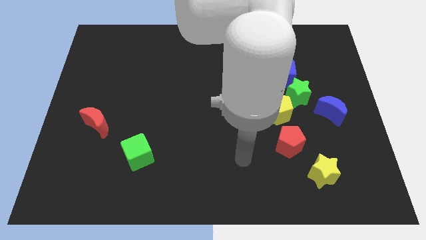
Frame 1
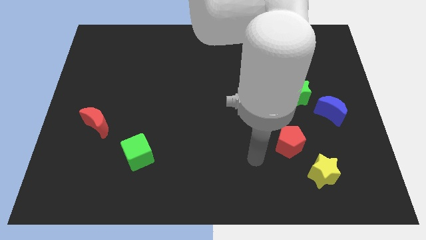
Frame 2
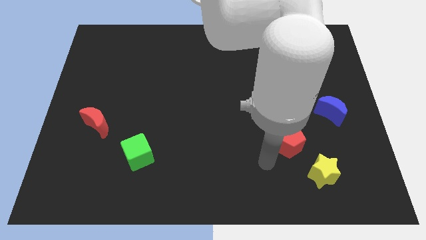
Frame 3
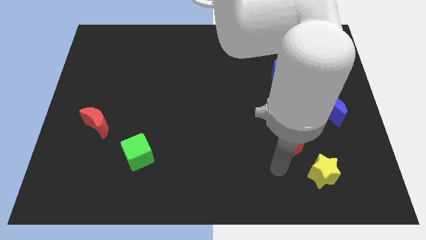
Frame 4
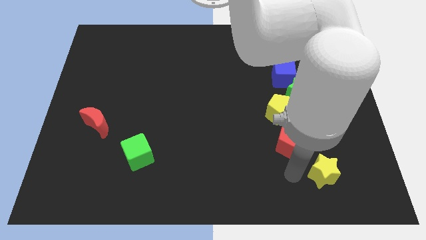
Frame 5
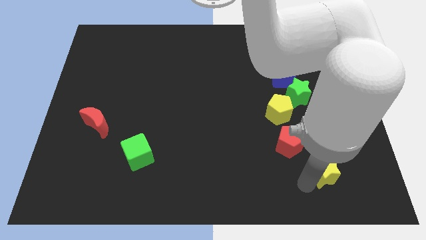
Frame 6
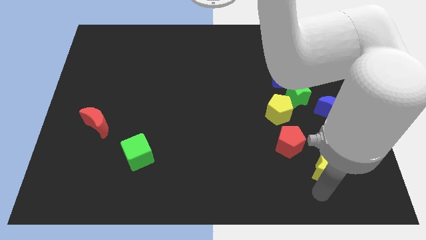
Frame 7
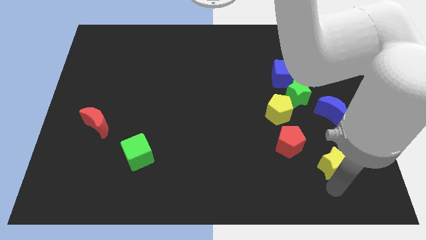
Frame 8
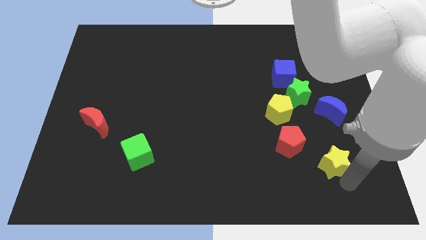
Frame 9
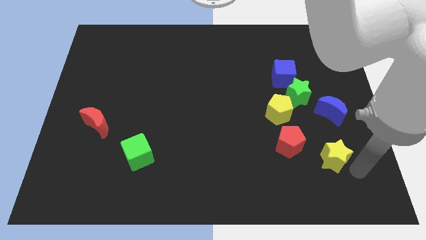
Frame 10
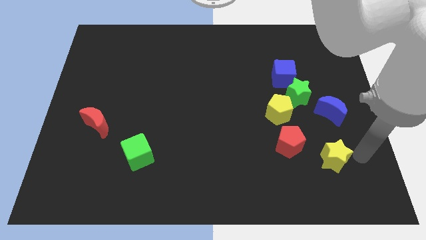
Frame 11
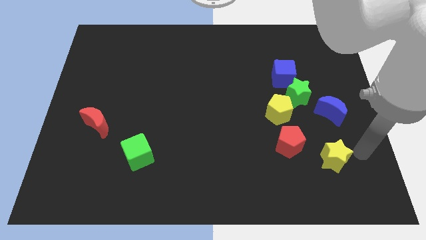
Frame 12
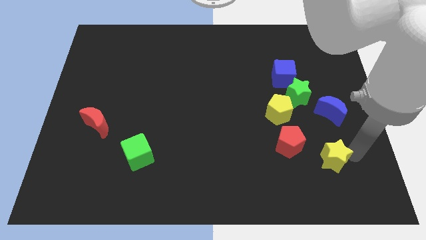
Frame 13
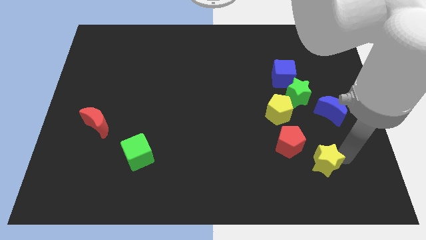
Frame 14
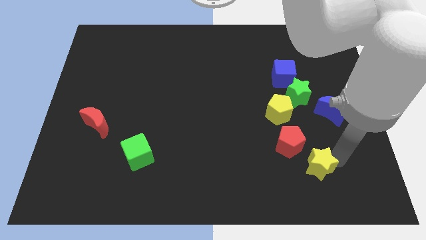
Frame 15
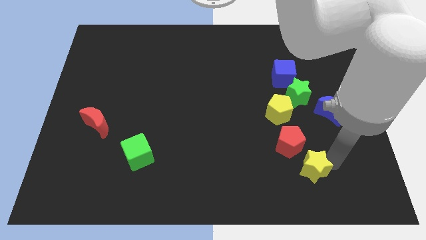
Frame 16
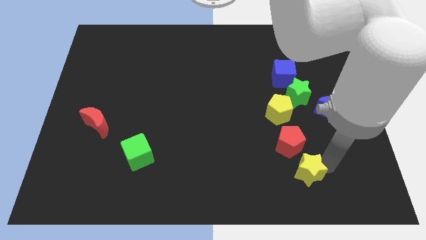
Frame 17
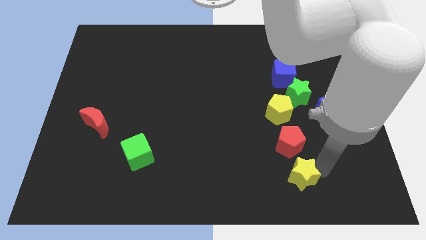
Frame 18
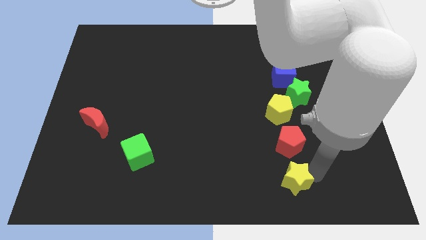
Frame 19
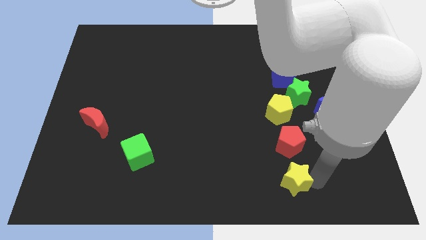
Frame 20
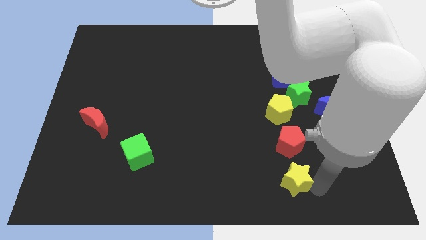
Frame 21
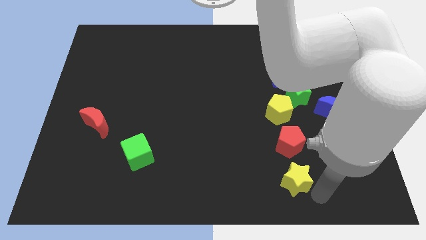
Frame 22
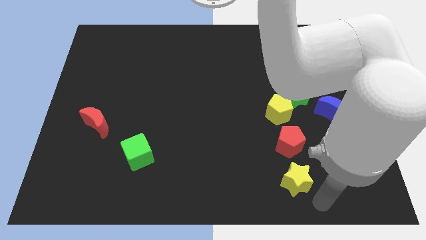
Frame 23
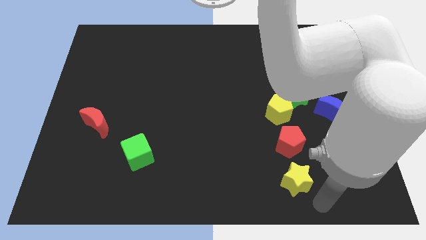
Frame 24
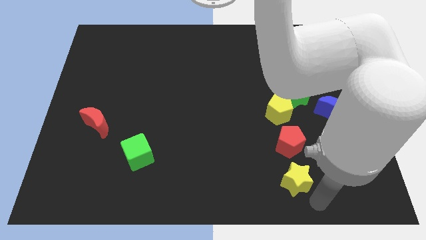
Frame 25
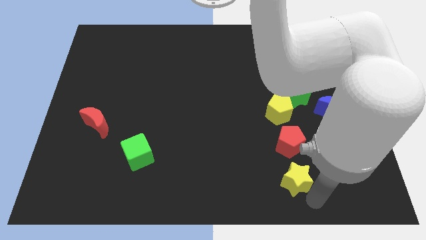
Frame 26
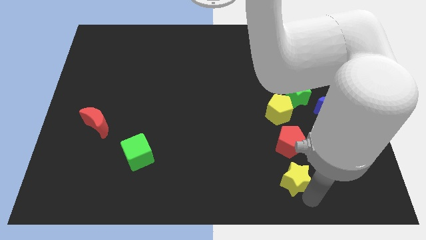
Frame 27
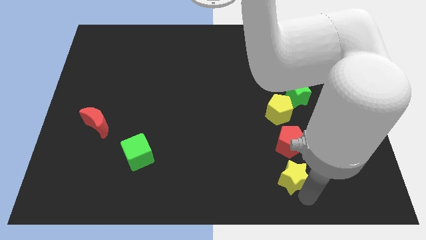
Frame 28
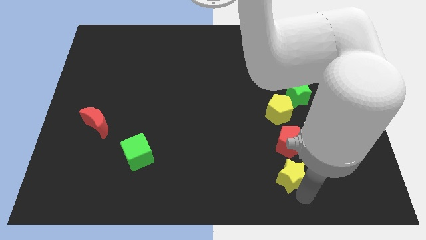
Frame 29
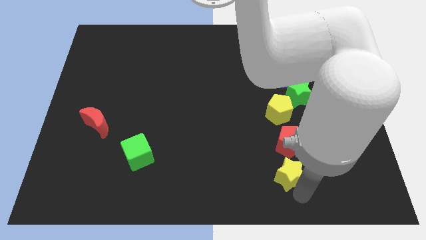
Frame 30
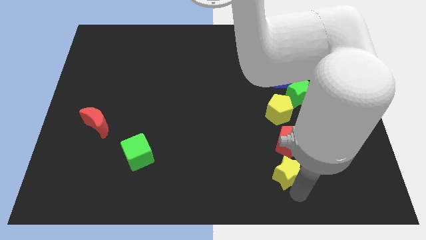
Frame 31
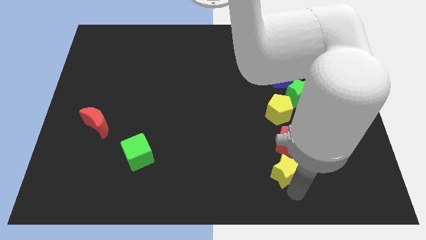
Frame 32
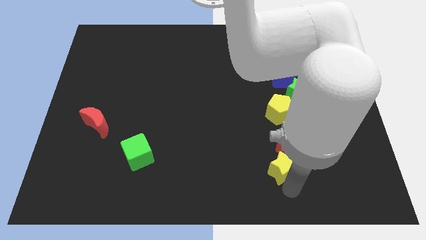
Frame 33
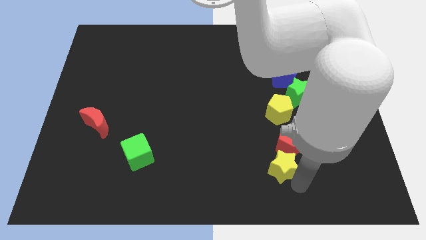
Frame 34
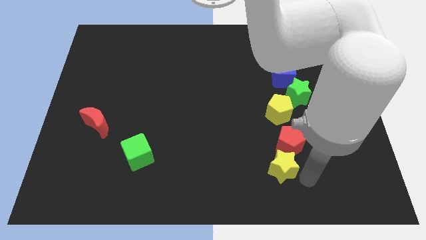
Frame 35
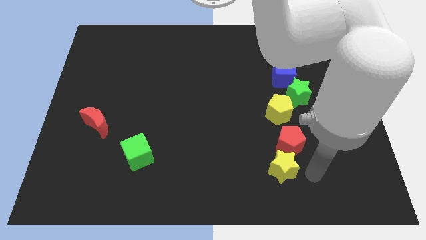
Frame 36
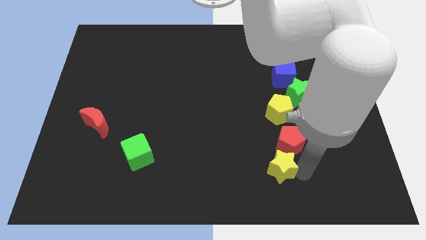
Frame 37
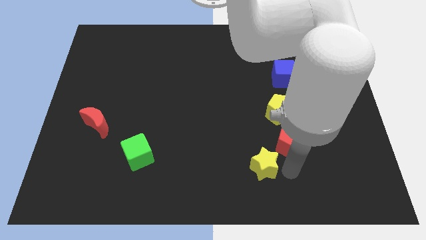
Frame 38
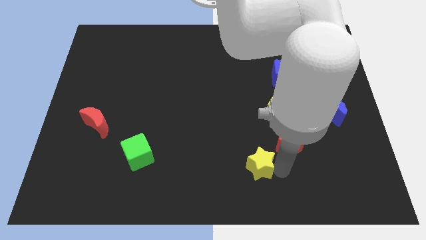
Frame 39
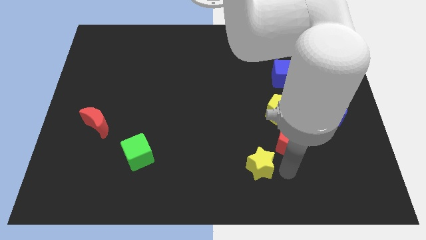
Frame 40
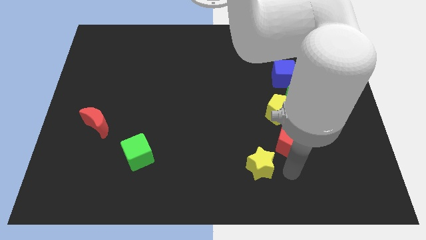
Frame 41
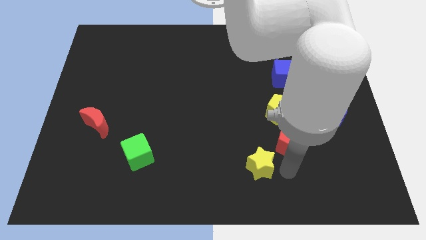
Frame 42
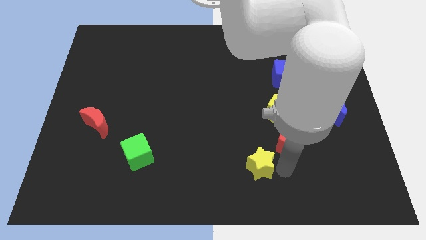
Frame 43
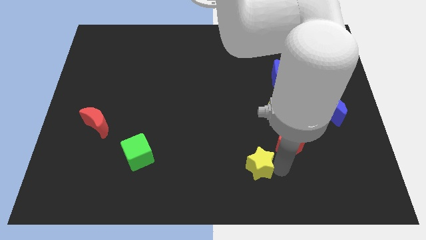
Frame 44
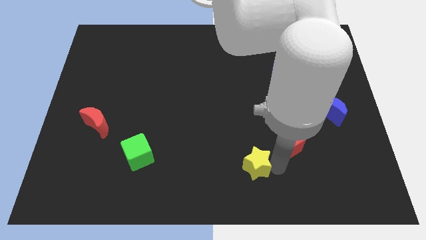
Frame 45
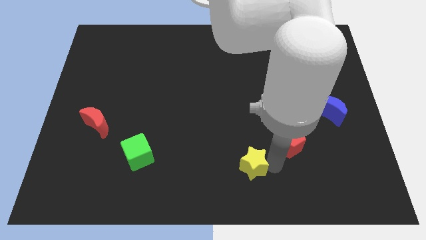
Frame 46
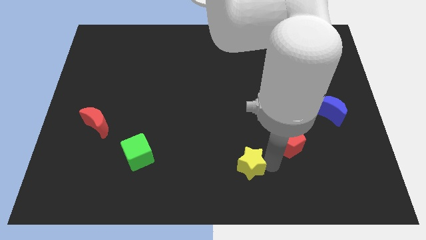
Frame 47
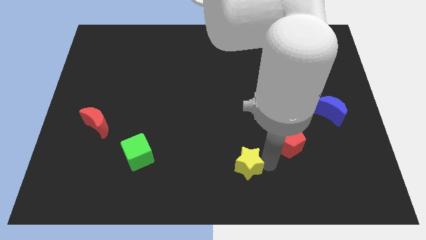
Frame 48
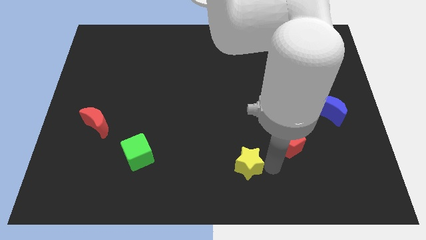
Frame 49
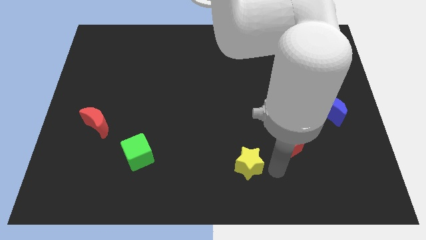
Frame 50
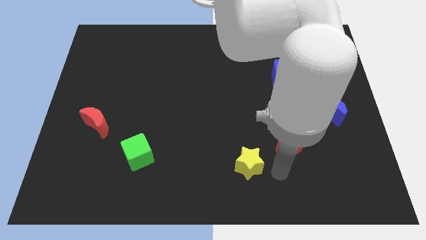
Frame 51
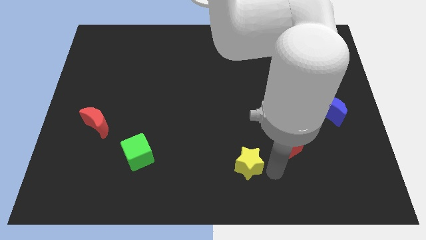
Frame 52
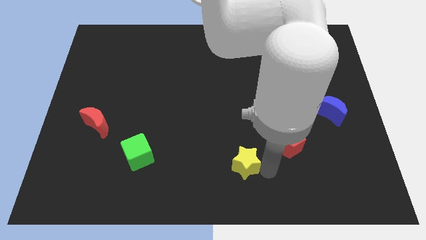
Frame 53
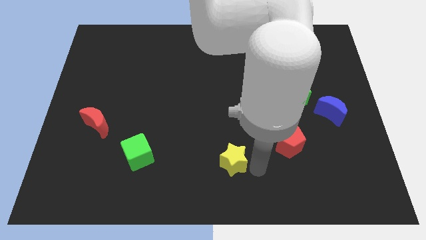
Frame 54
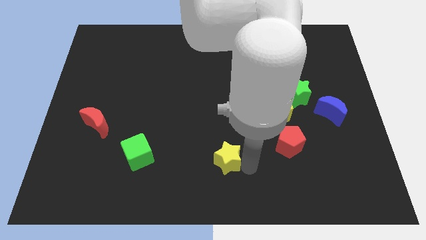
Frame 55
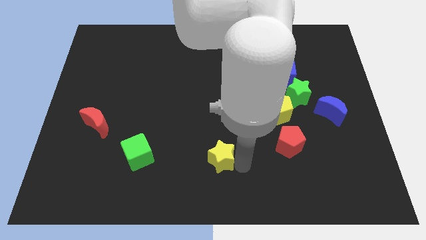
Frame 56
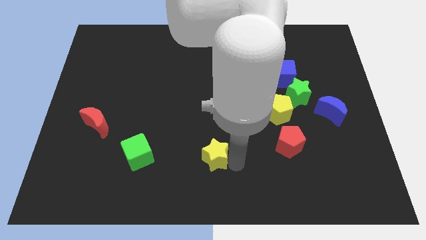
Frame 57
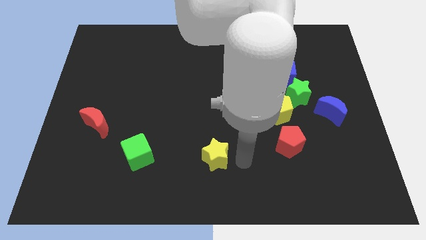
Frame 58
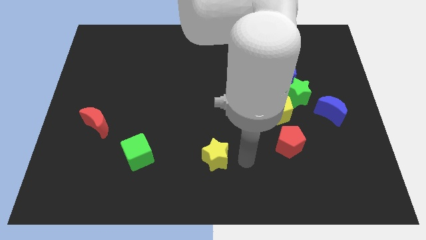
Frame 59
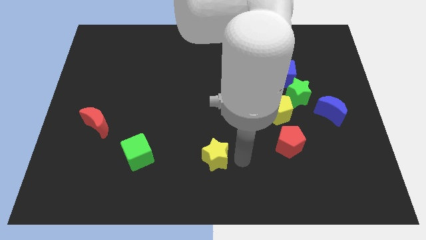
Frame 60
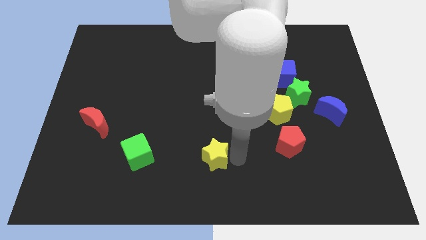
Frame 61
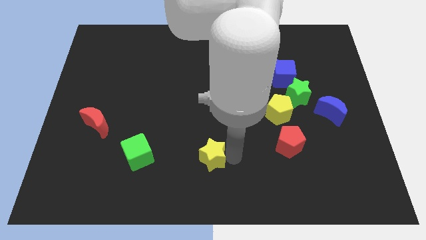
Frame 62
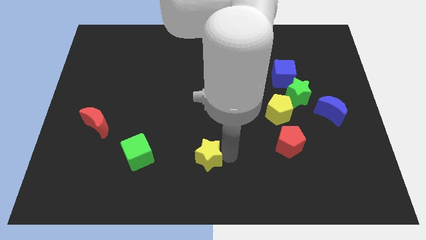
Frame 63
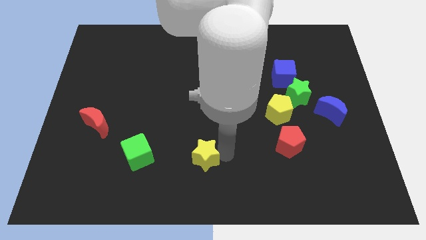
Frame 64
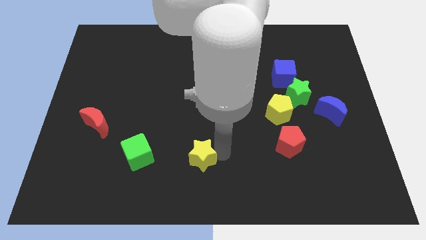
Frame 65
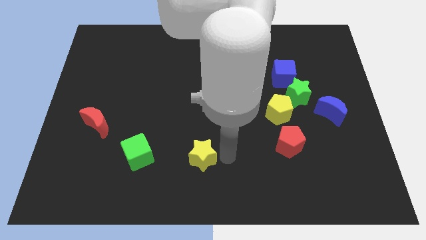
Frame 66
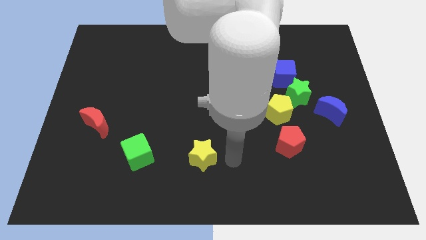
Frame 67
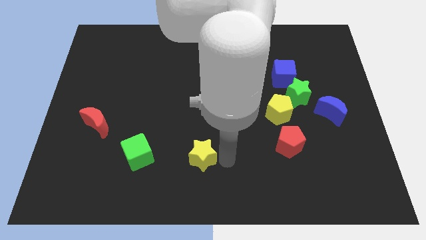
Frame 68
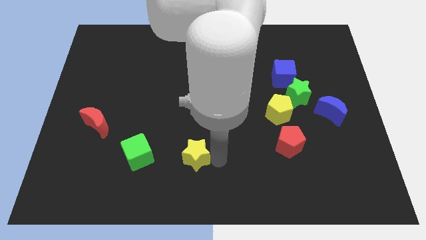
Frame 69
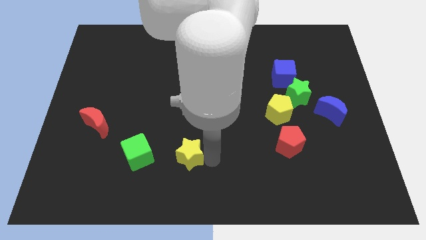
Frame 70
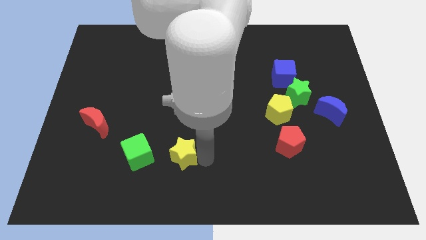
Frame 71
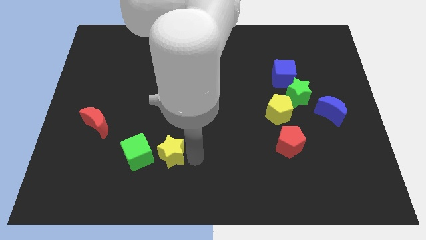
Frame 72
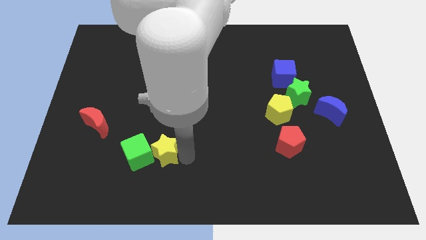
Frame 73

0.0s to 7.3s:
slide the yellow star close to the green cube
